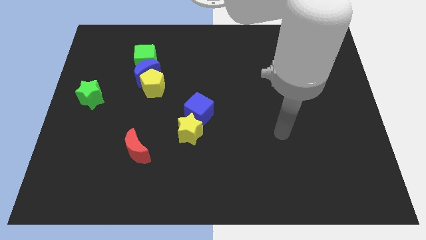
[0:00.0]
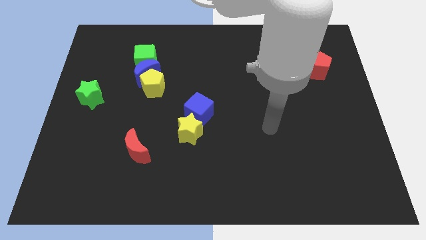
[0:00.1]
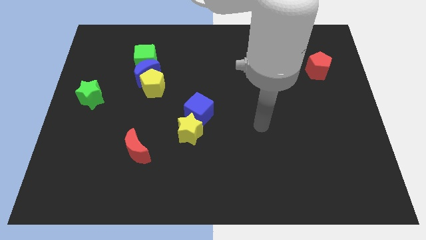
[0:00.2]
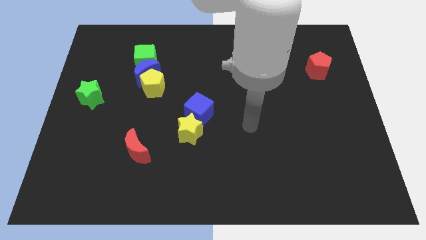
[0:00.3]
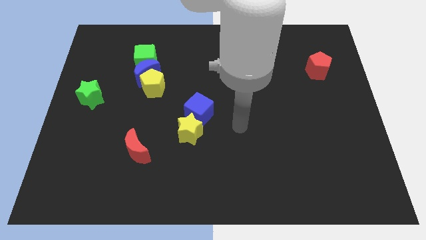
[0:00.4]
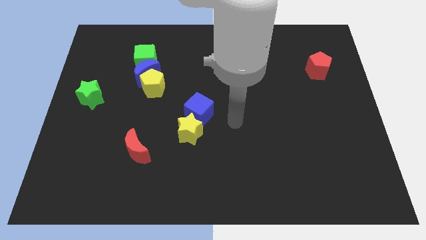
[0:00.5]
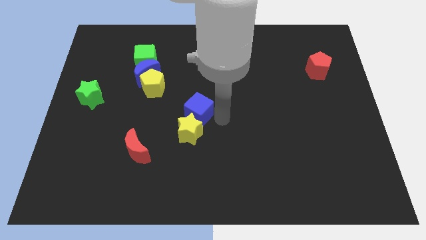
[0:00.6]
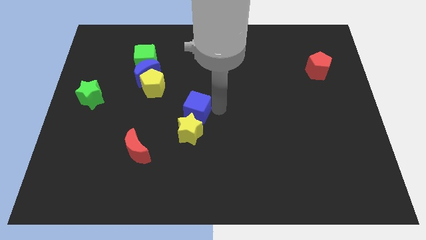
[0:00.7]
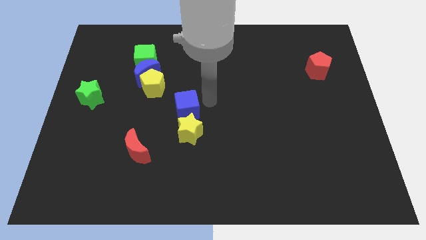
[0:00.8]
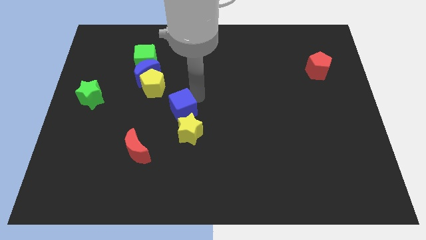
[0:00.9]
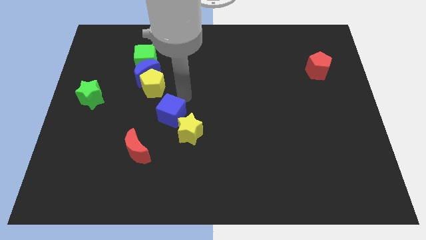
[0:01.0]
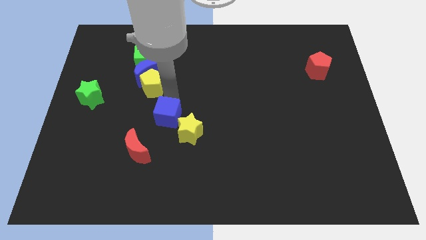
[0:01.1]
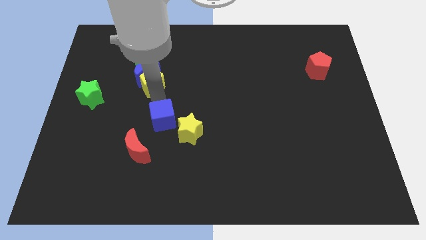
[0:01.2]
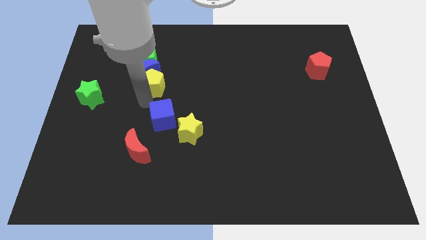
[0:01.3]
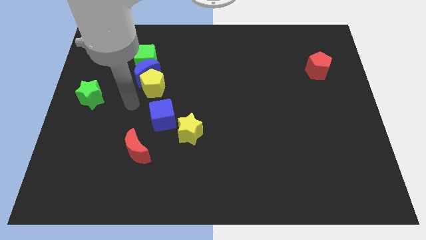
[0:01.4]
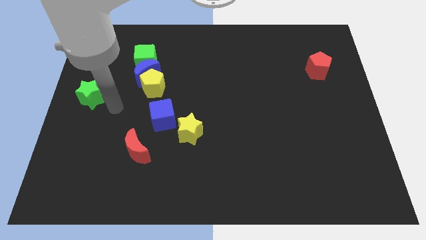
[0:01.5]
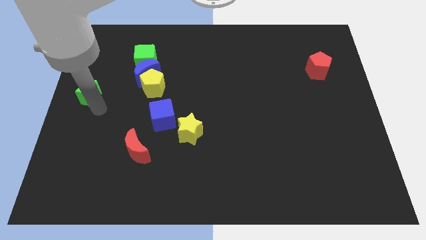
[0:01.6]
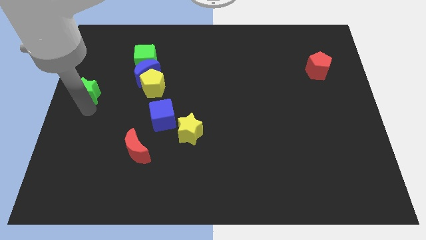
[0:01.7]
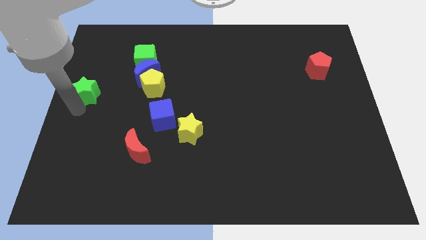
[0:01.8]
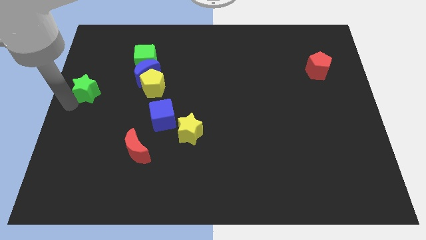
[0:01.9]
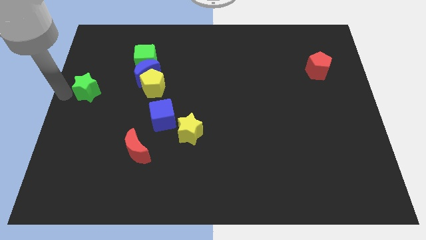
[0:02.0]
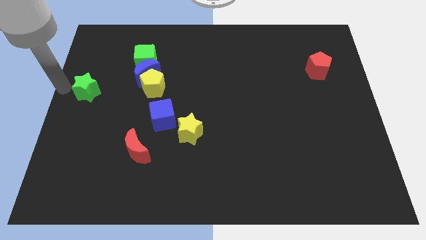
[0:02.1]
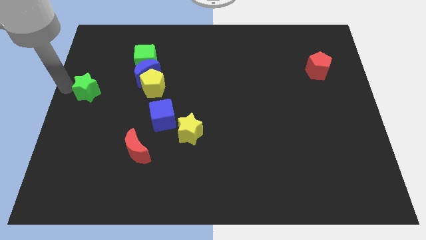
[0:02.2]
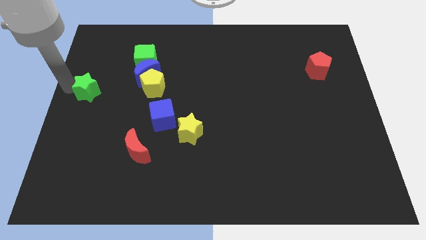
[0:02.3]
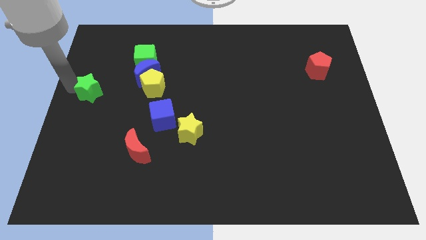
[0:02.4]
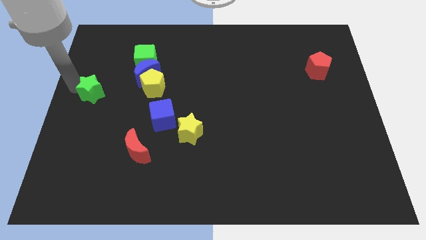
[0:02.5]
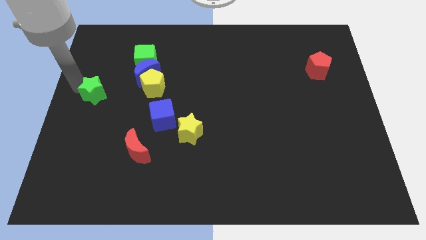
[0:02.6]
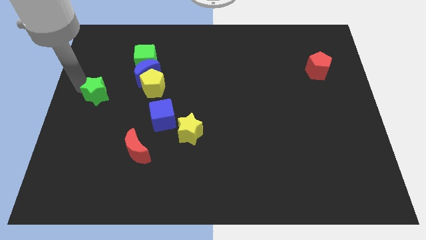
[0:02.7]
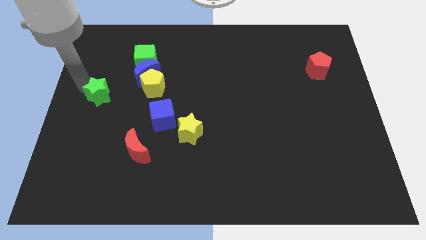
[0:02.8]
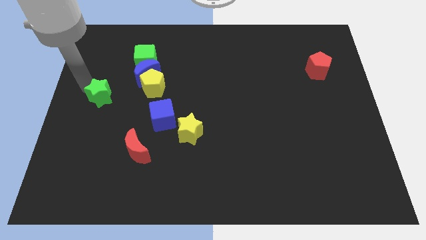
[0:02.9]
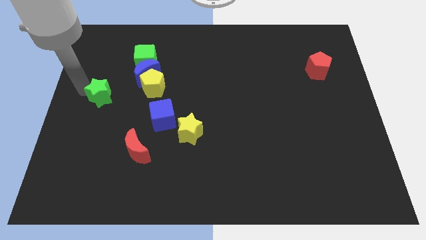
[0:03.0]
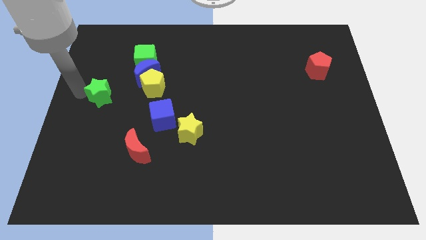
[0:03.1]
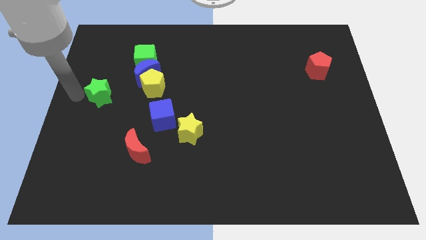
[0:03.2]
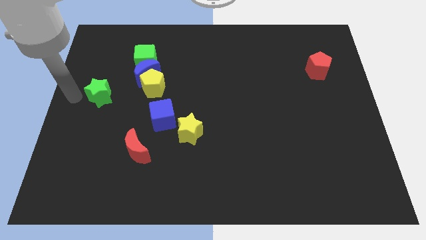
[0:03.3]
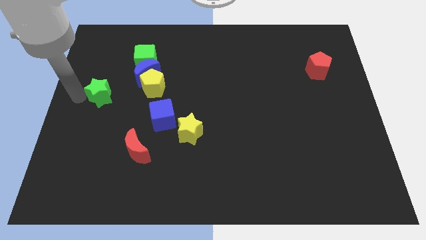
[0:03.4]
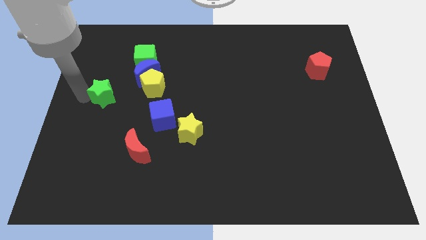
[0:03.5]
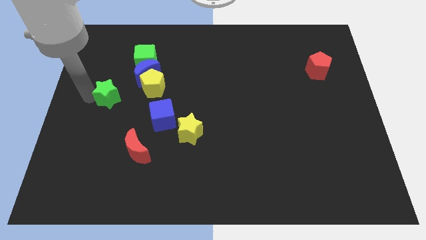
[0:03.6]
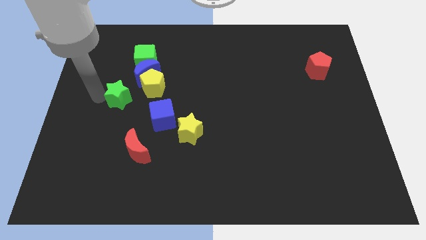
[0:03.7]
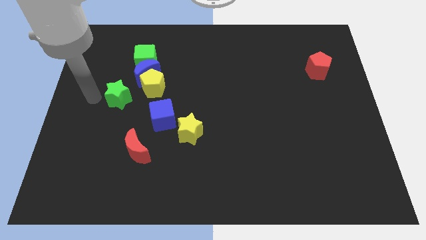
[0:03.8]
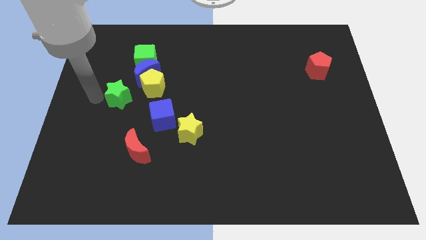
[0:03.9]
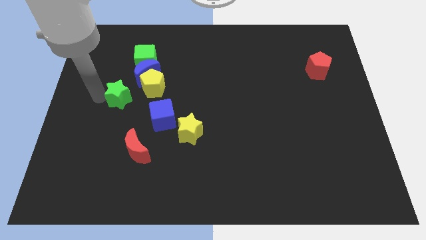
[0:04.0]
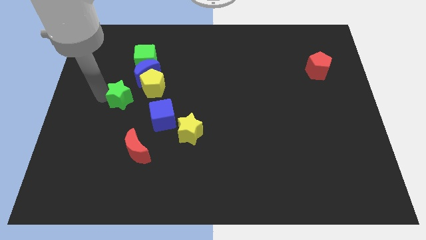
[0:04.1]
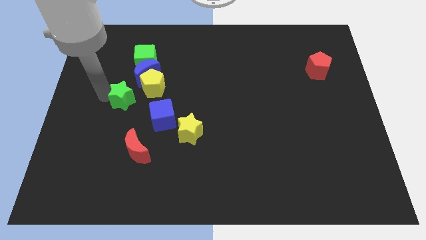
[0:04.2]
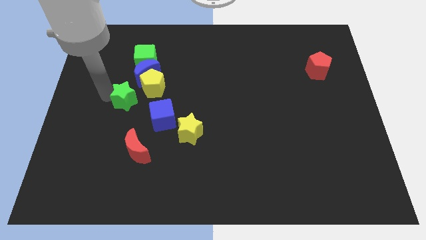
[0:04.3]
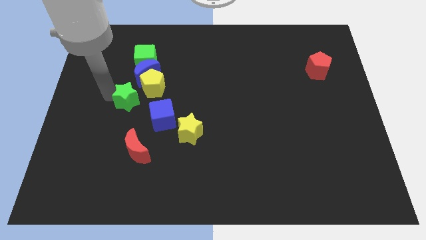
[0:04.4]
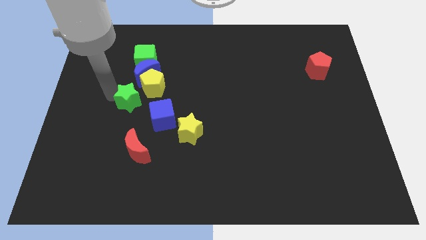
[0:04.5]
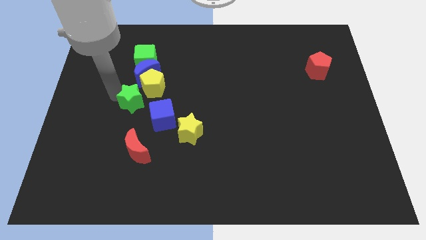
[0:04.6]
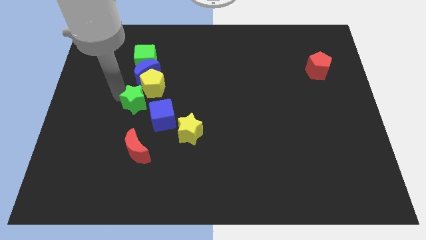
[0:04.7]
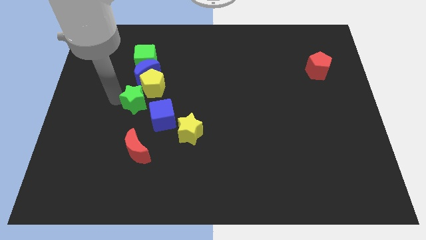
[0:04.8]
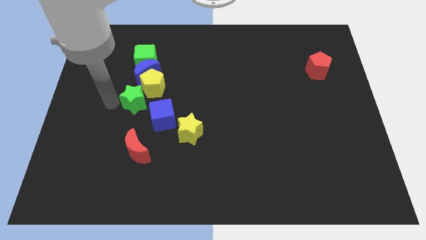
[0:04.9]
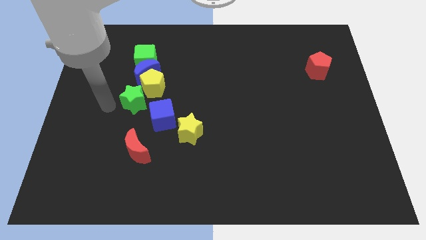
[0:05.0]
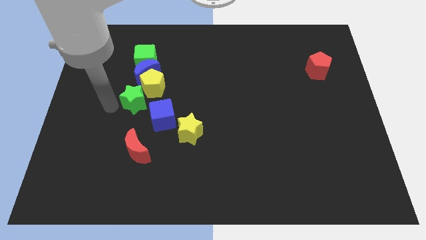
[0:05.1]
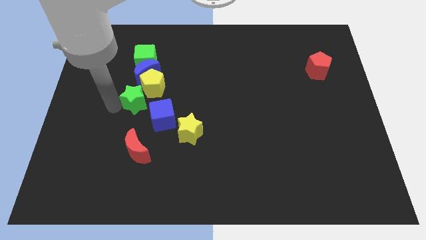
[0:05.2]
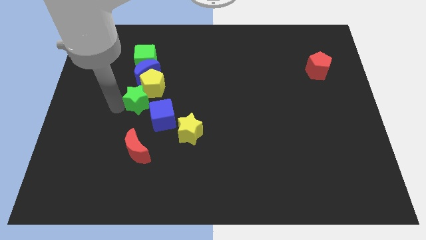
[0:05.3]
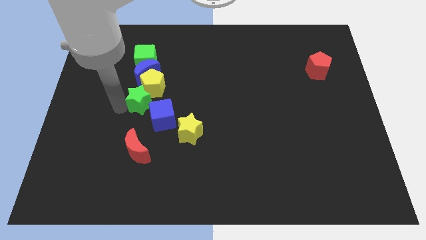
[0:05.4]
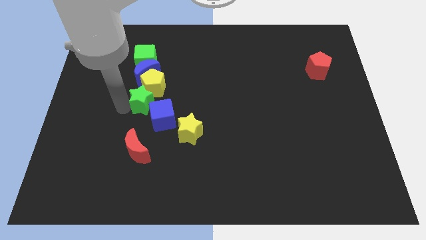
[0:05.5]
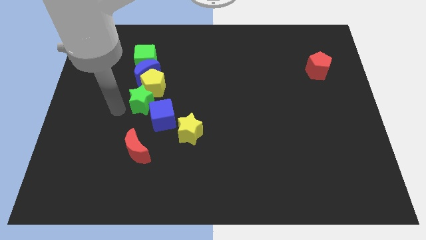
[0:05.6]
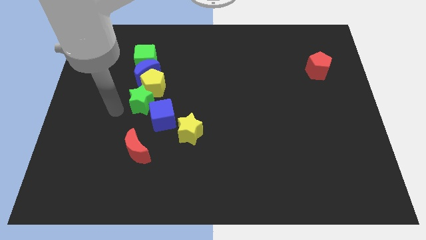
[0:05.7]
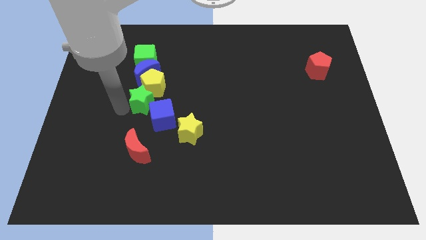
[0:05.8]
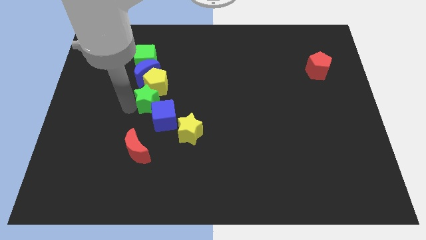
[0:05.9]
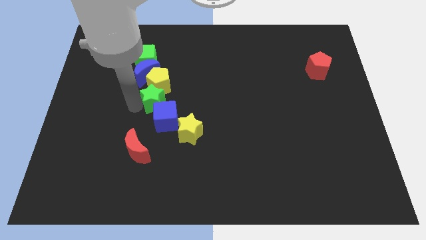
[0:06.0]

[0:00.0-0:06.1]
push the green star to the bottom right of the blue moon
